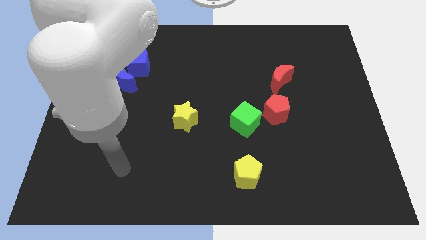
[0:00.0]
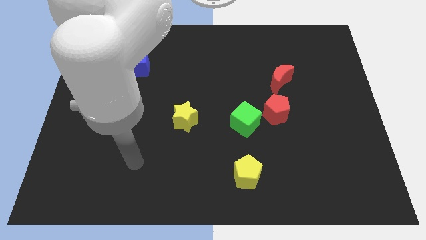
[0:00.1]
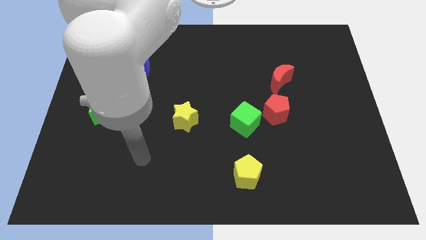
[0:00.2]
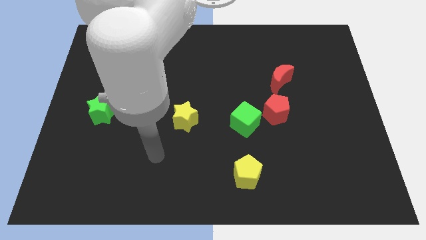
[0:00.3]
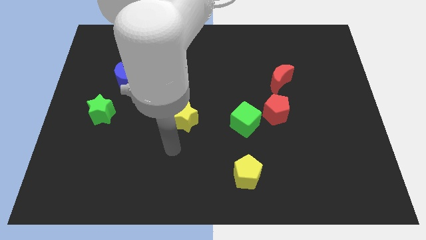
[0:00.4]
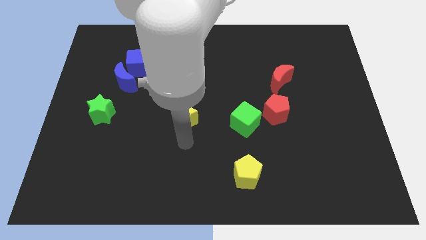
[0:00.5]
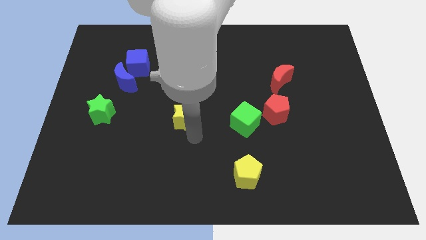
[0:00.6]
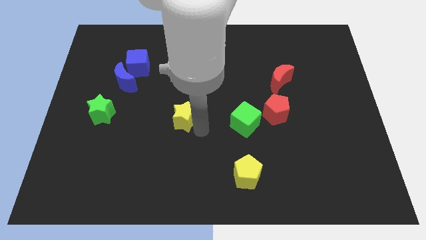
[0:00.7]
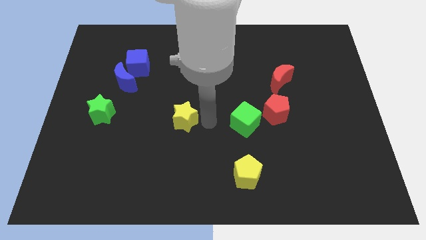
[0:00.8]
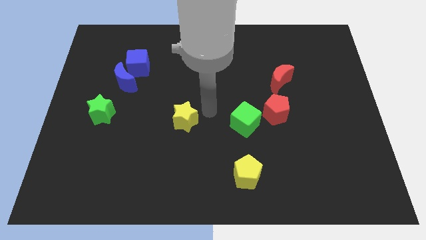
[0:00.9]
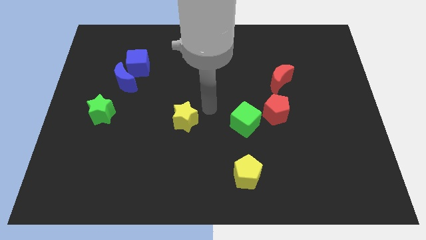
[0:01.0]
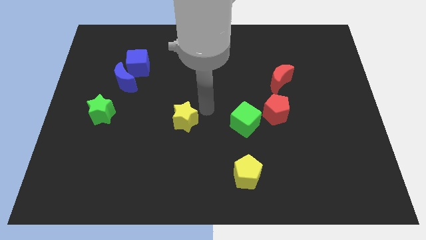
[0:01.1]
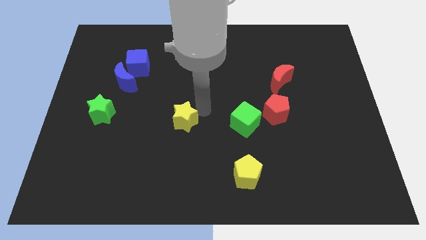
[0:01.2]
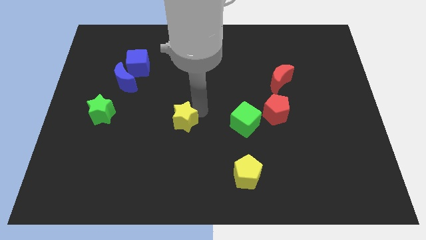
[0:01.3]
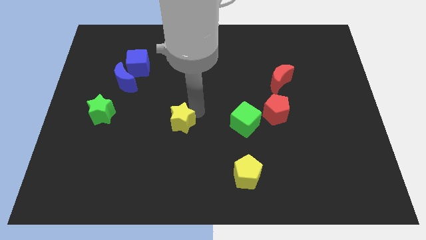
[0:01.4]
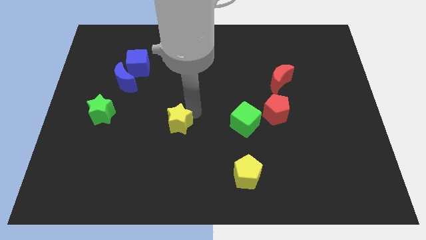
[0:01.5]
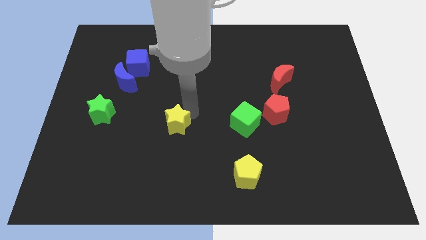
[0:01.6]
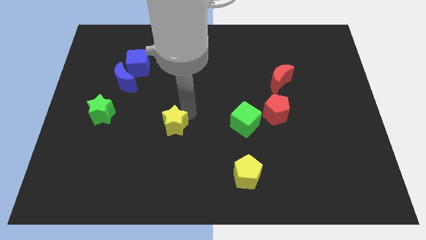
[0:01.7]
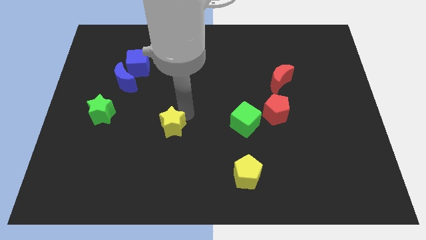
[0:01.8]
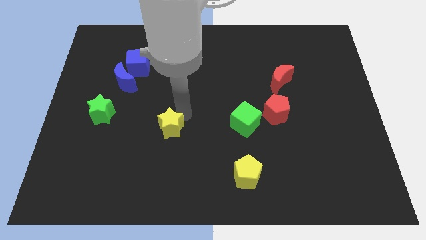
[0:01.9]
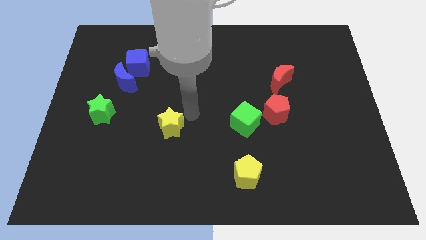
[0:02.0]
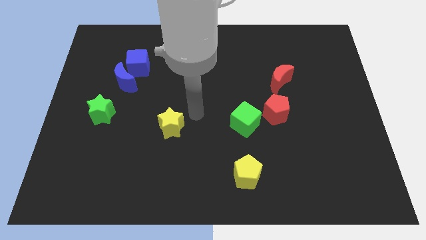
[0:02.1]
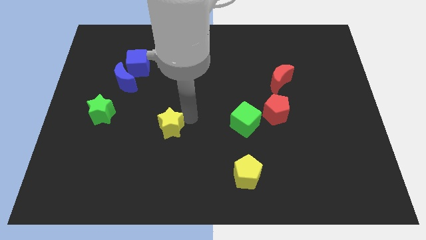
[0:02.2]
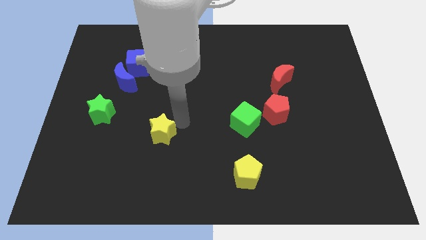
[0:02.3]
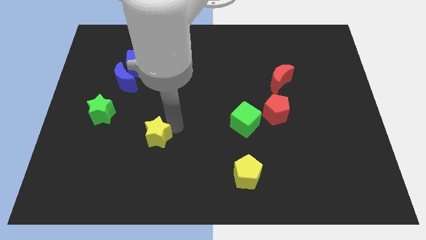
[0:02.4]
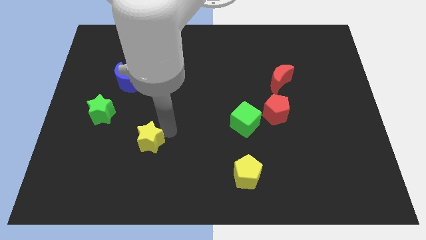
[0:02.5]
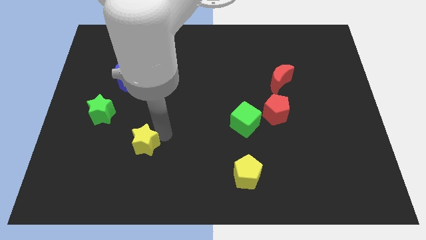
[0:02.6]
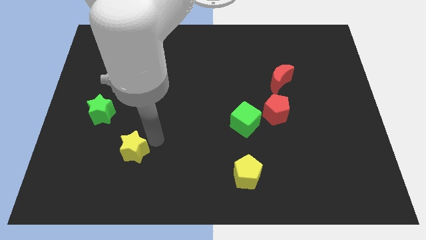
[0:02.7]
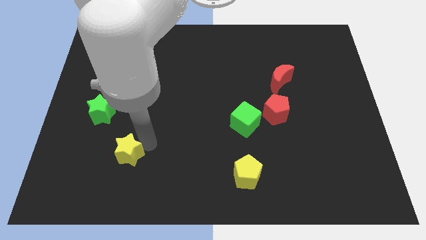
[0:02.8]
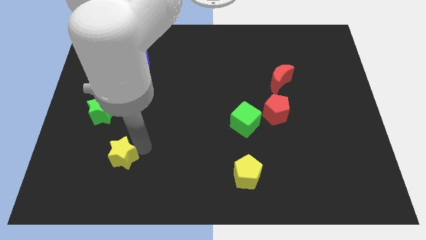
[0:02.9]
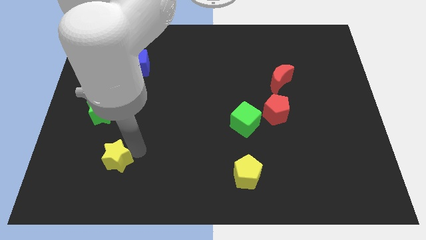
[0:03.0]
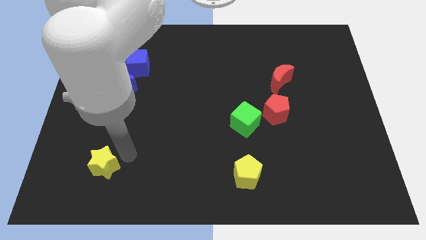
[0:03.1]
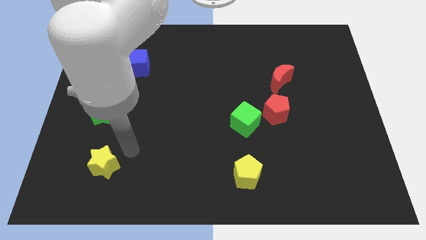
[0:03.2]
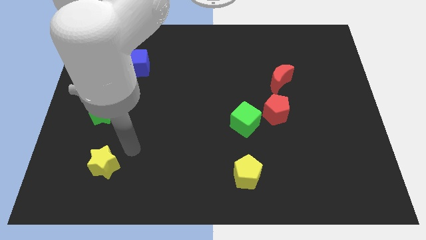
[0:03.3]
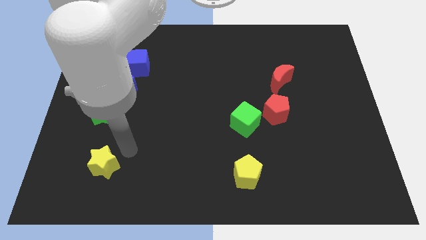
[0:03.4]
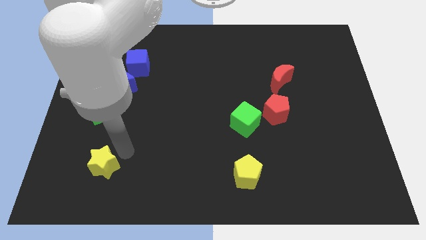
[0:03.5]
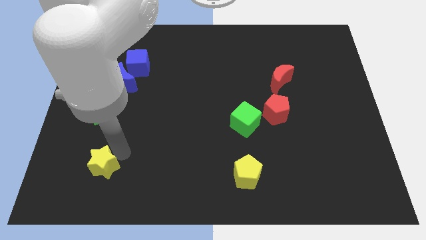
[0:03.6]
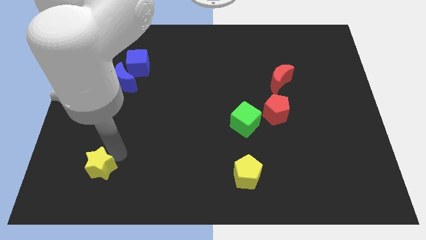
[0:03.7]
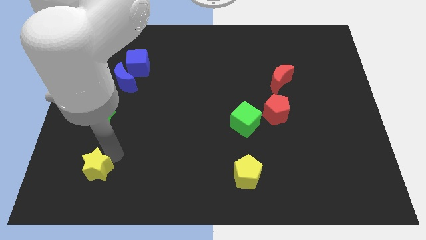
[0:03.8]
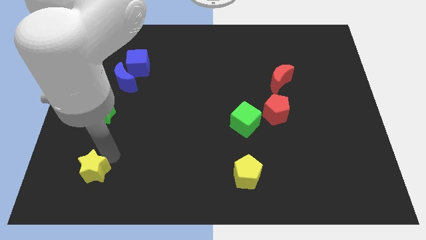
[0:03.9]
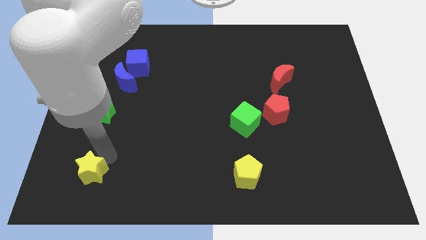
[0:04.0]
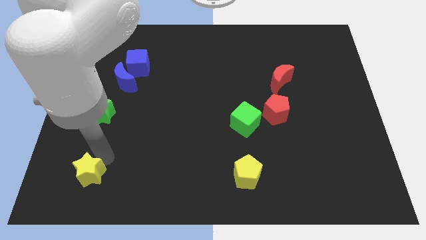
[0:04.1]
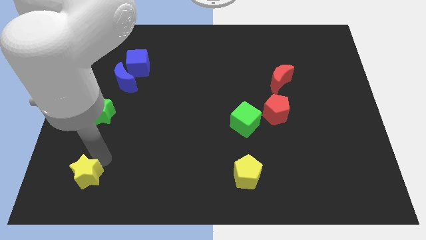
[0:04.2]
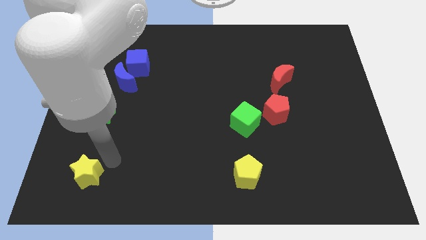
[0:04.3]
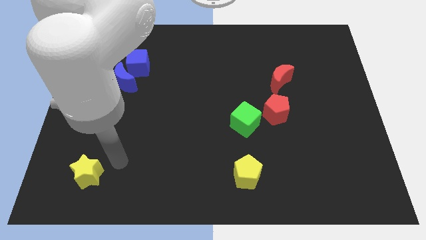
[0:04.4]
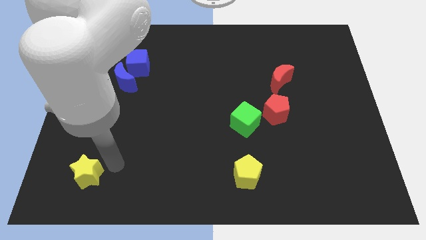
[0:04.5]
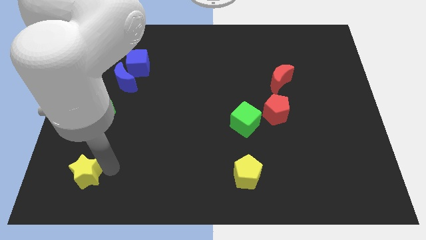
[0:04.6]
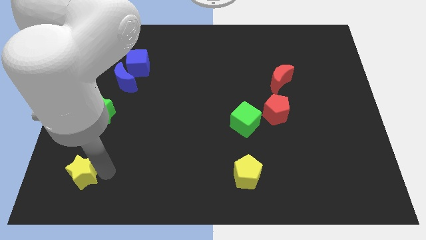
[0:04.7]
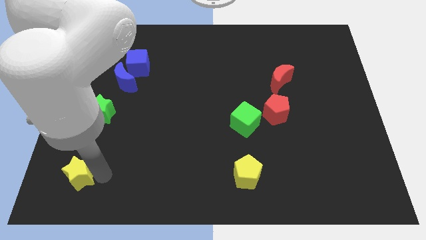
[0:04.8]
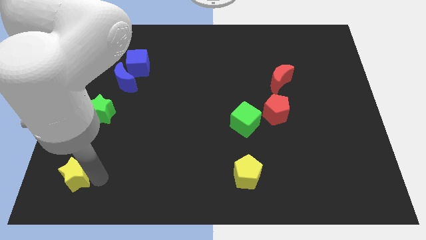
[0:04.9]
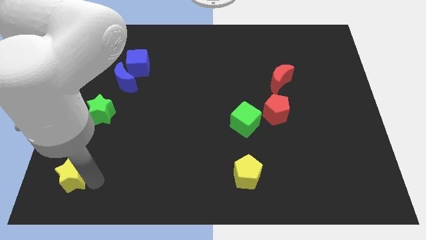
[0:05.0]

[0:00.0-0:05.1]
push the yellow star to the bottom left of the board

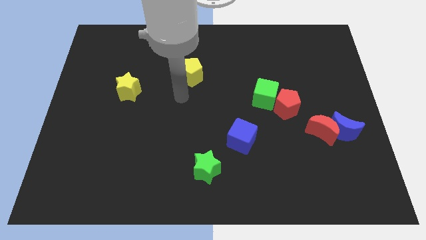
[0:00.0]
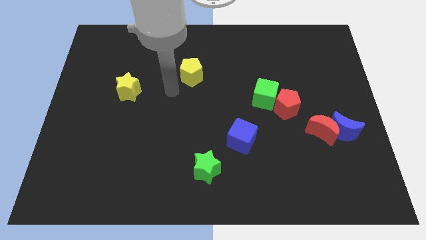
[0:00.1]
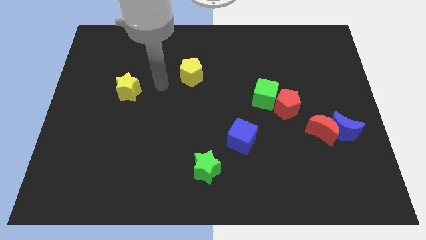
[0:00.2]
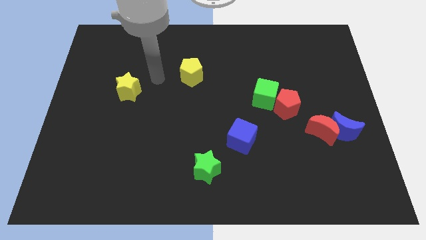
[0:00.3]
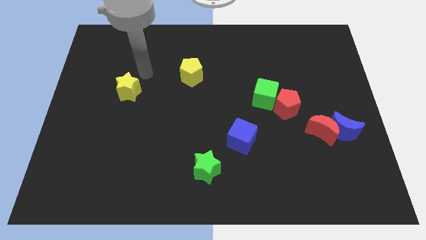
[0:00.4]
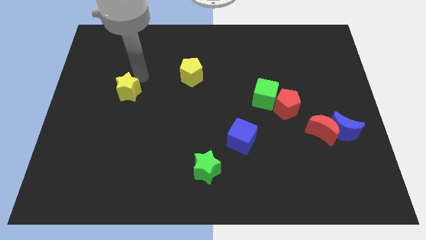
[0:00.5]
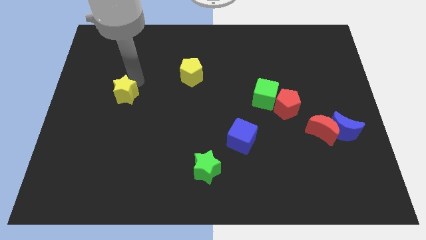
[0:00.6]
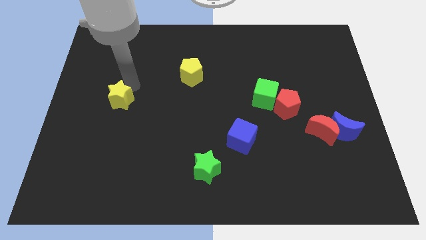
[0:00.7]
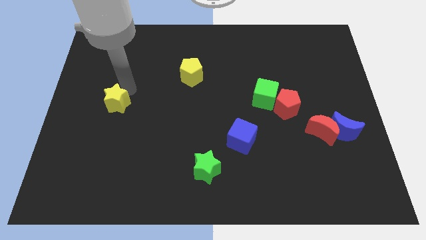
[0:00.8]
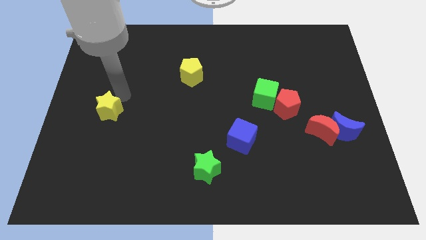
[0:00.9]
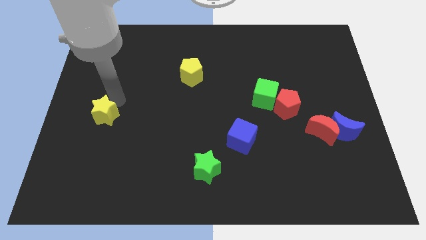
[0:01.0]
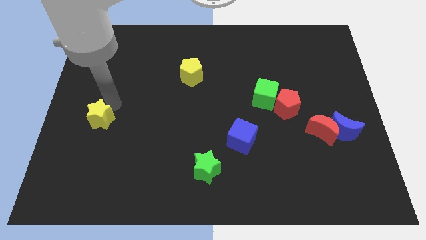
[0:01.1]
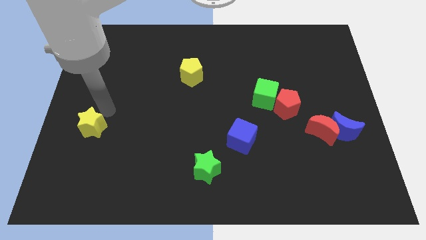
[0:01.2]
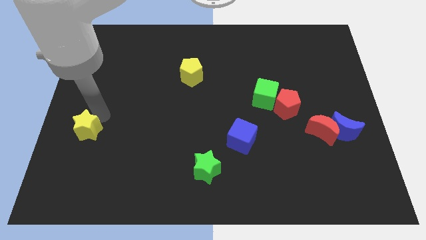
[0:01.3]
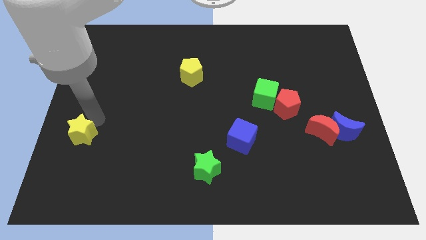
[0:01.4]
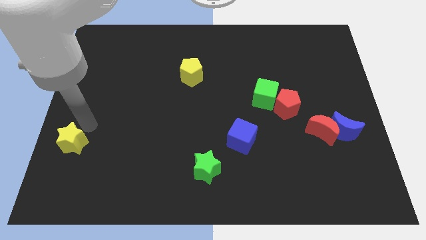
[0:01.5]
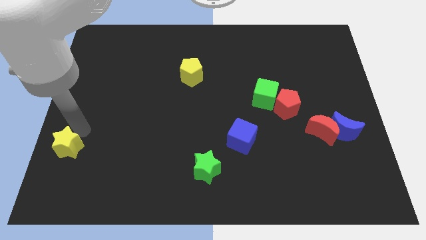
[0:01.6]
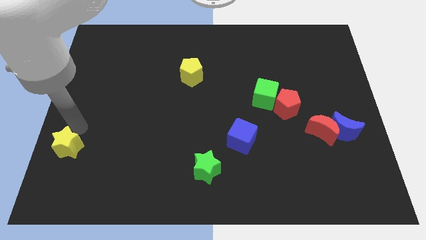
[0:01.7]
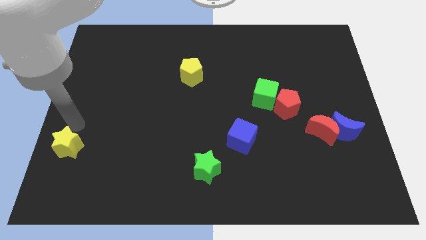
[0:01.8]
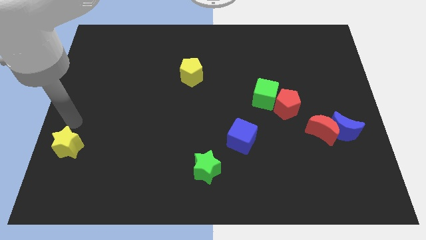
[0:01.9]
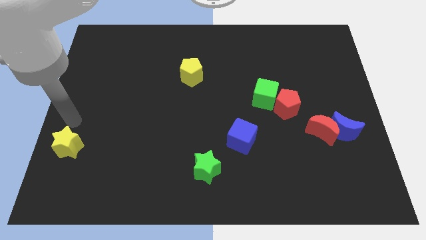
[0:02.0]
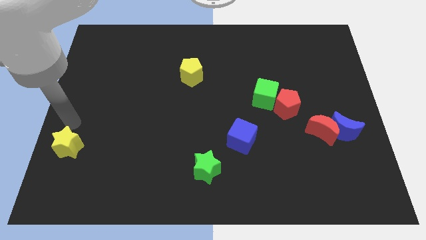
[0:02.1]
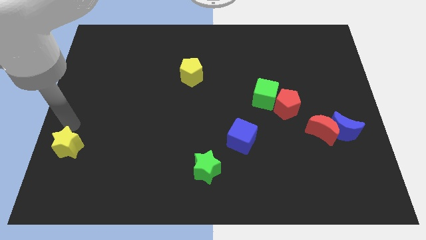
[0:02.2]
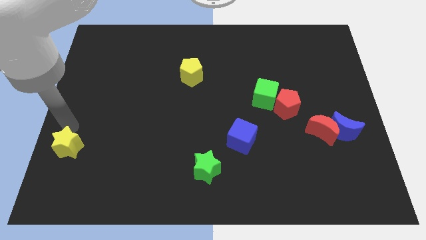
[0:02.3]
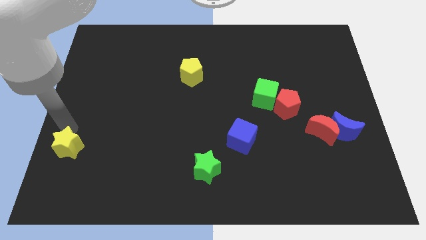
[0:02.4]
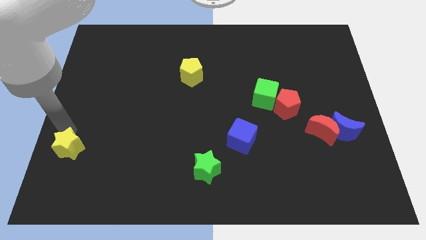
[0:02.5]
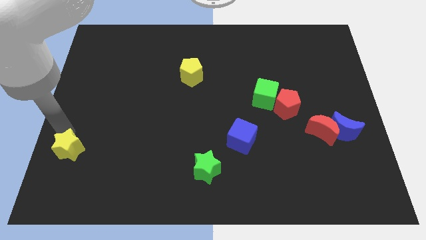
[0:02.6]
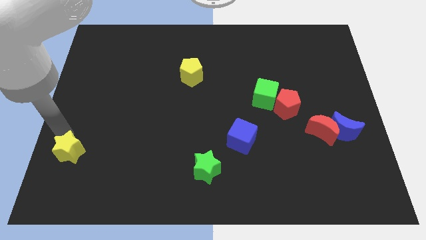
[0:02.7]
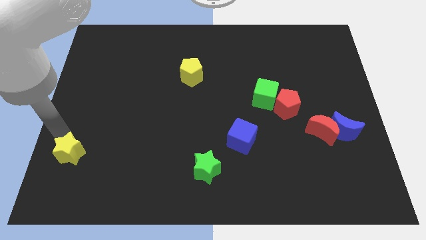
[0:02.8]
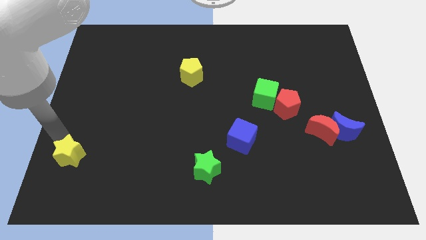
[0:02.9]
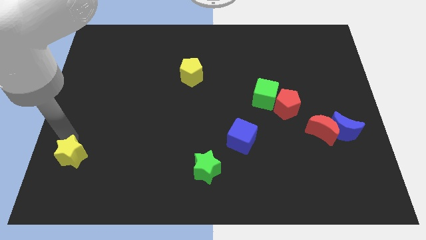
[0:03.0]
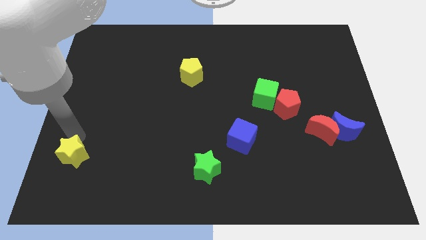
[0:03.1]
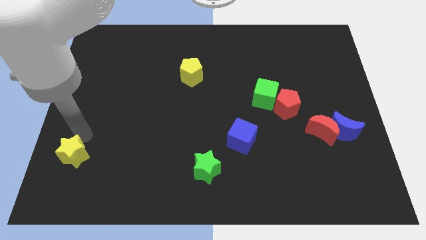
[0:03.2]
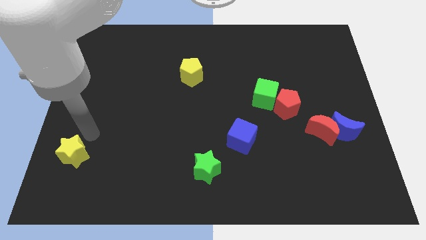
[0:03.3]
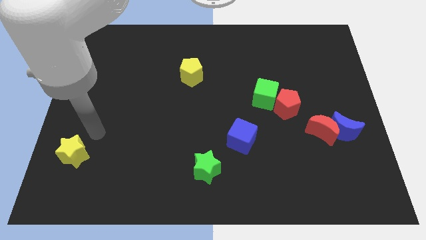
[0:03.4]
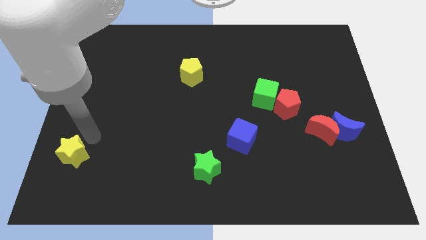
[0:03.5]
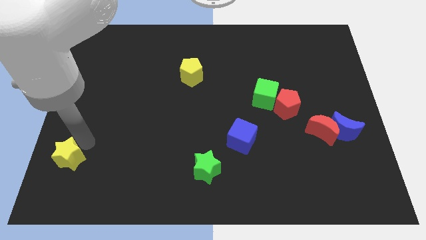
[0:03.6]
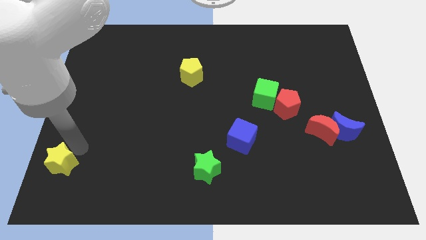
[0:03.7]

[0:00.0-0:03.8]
push the yellow star to the bottom left corner
